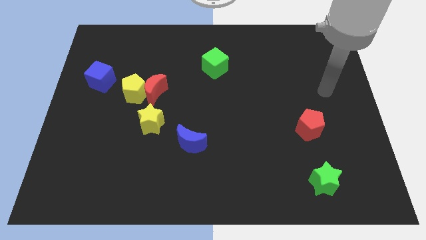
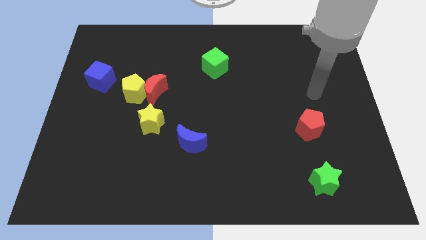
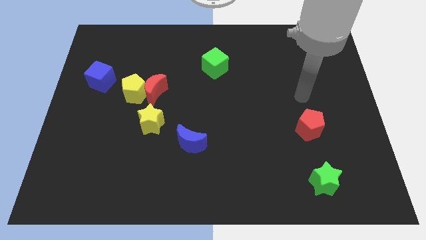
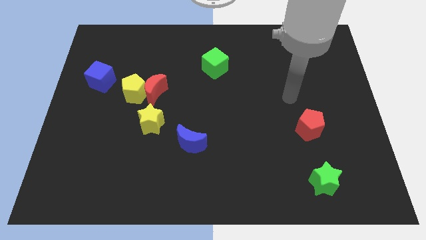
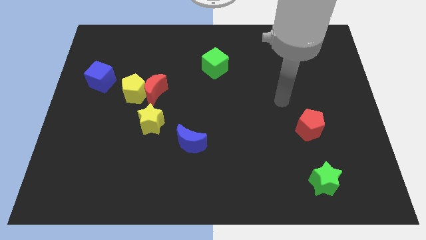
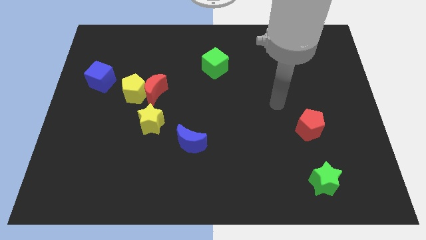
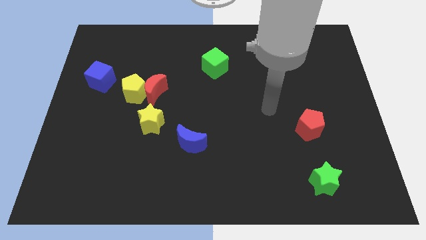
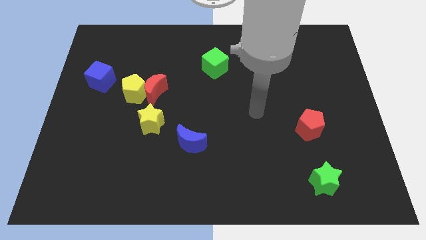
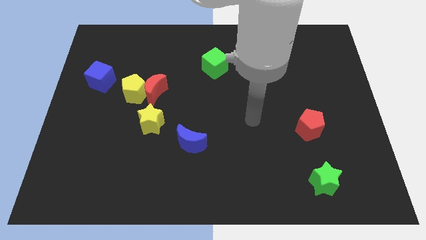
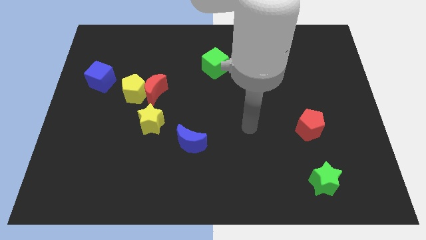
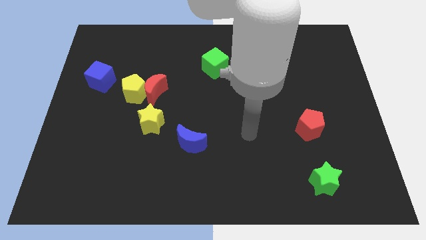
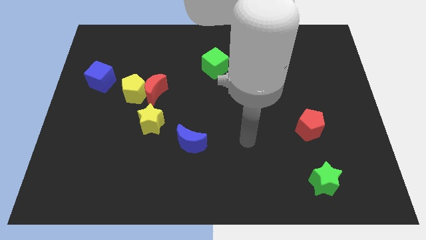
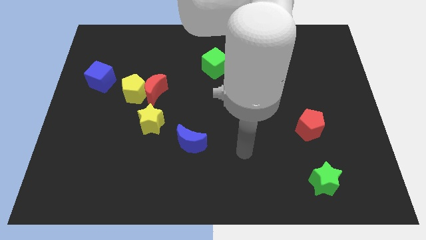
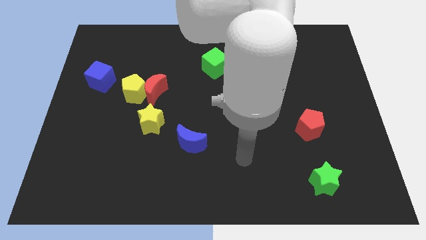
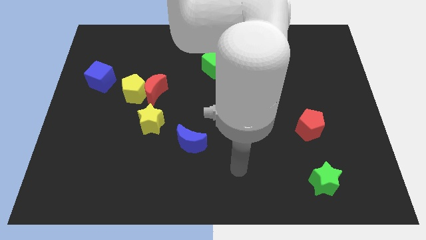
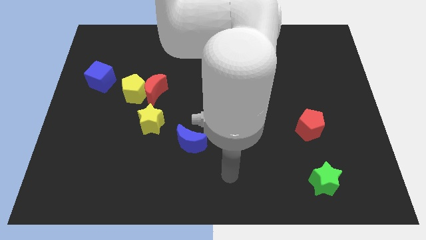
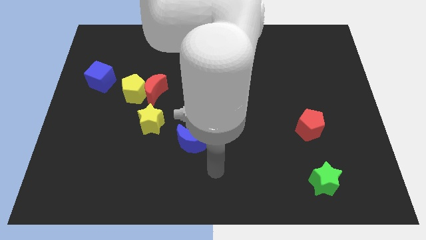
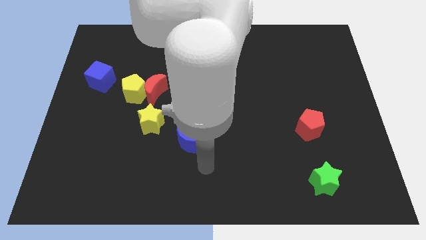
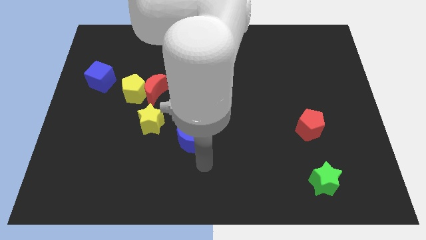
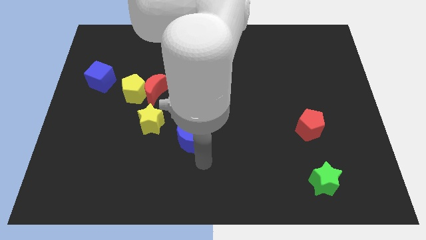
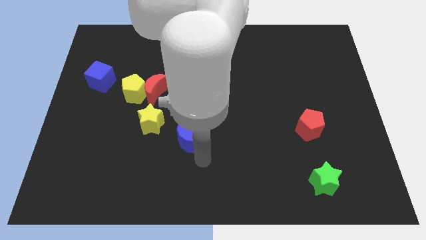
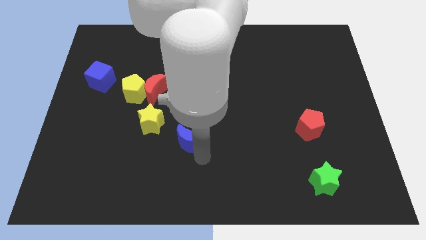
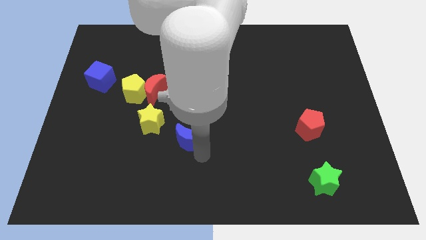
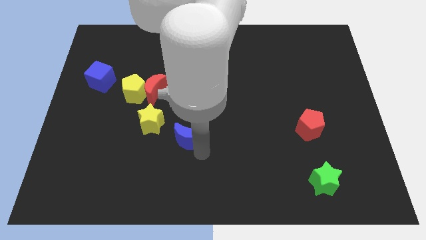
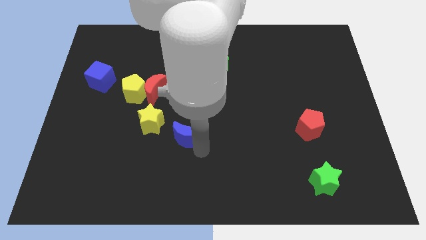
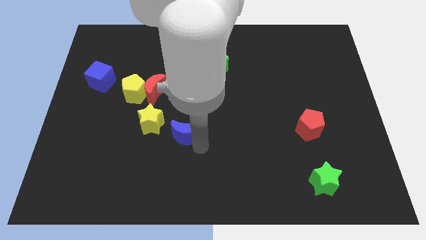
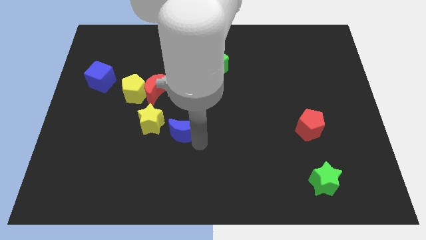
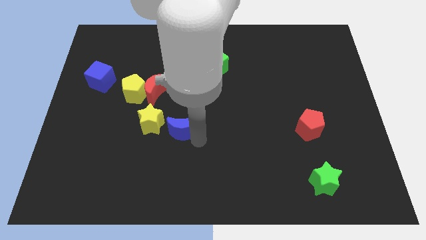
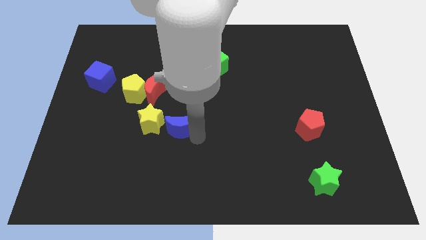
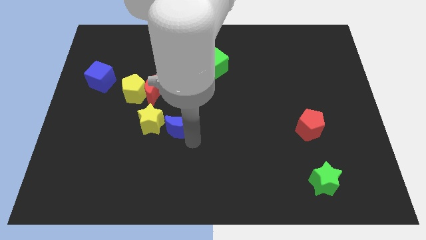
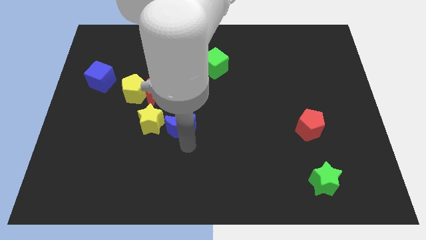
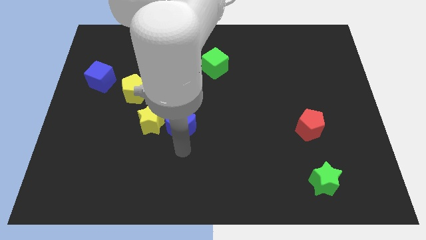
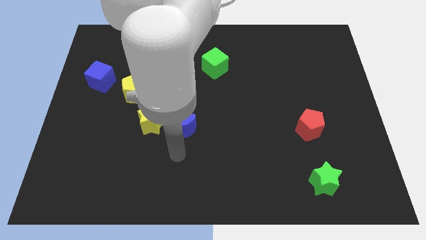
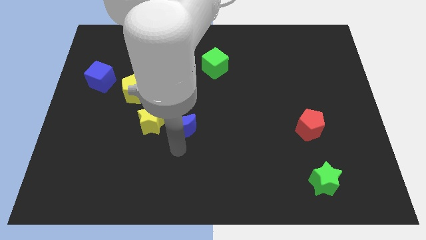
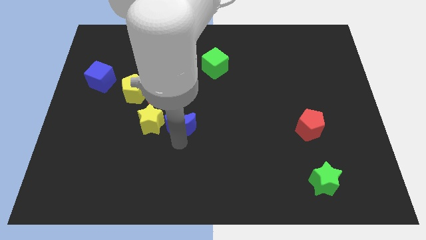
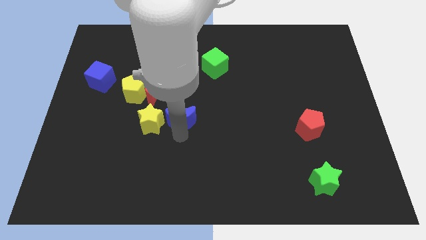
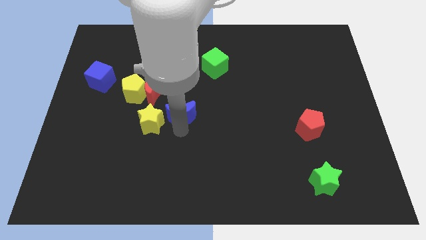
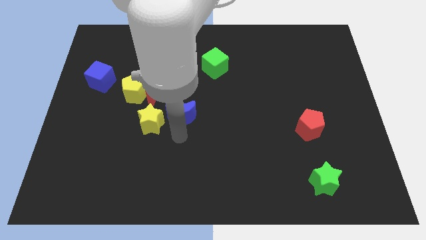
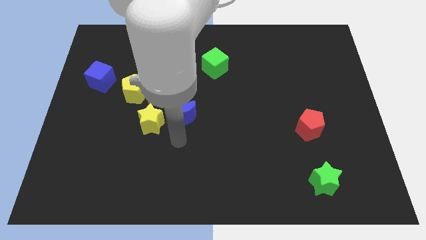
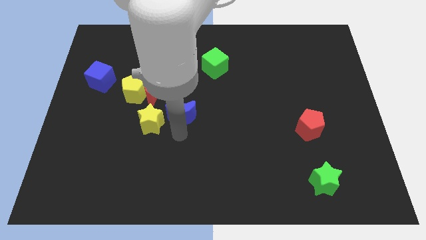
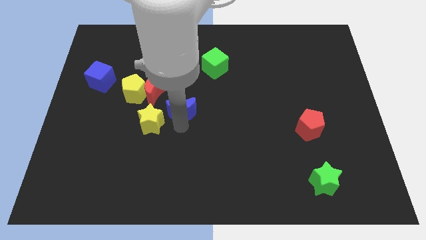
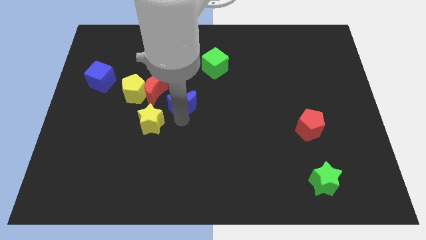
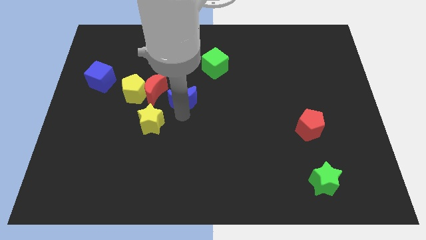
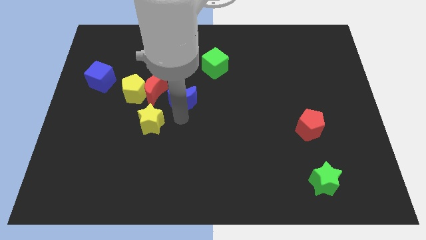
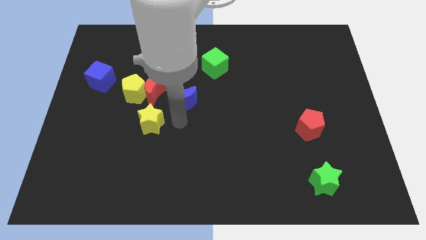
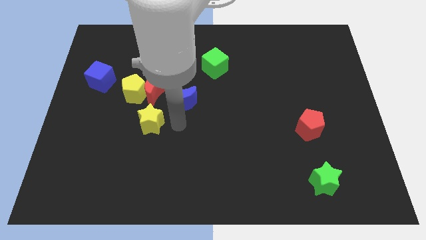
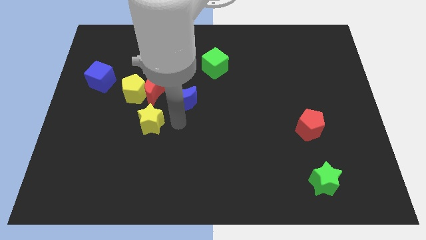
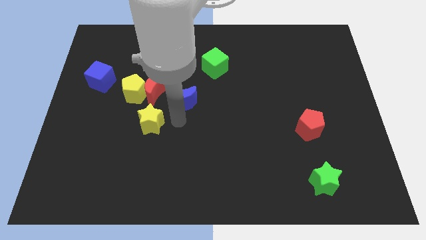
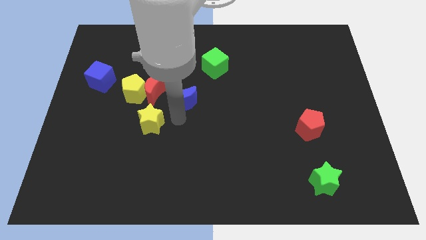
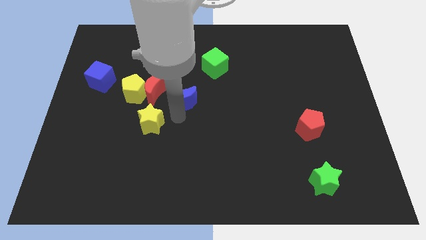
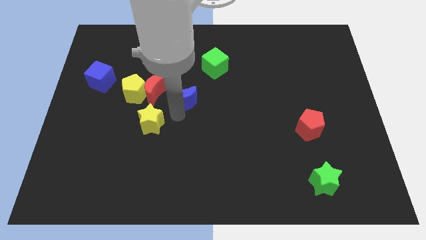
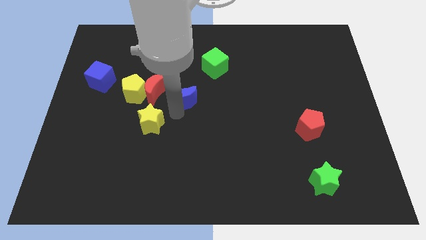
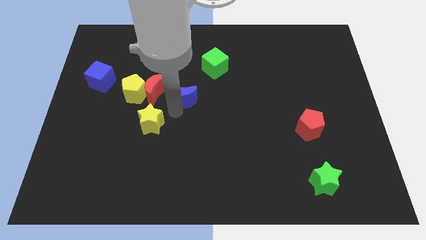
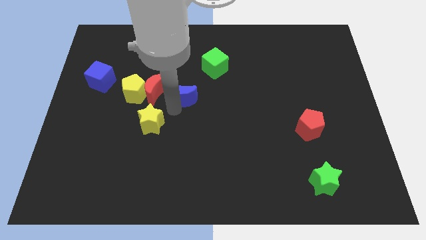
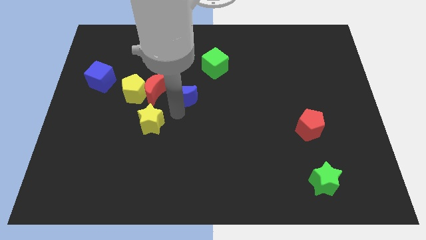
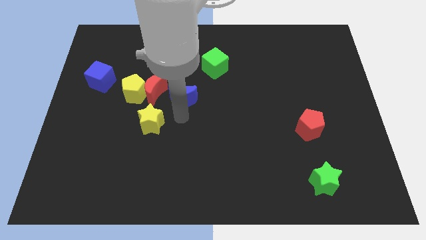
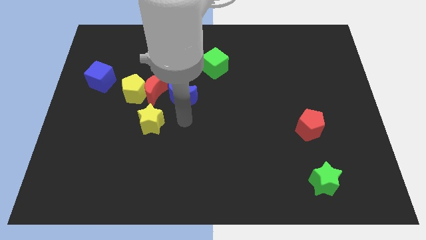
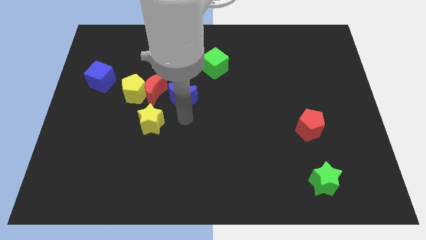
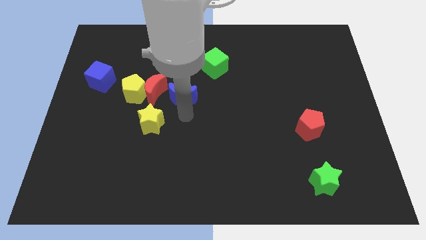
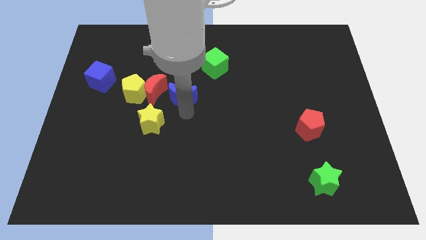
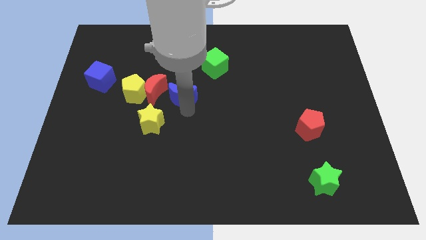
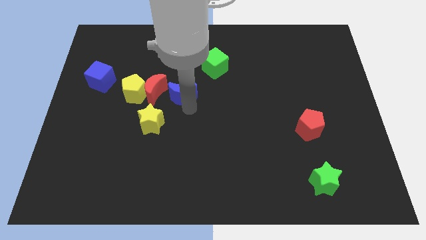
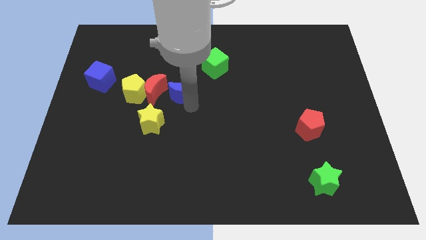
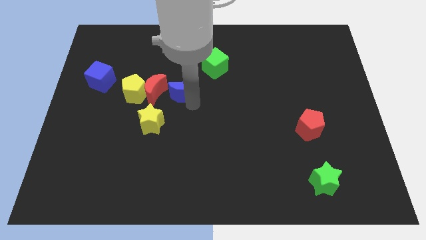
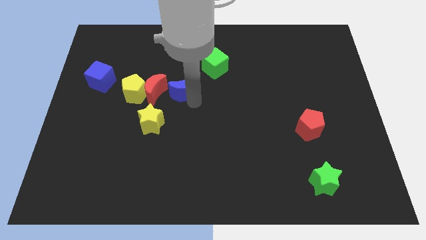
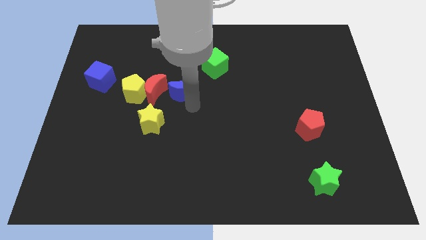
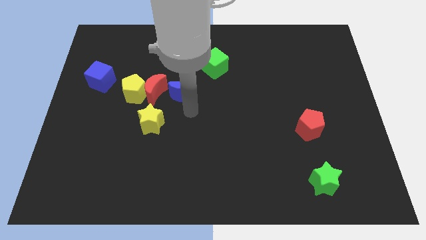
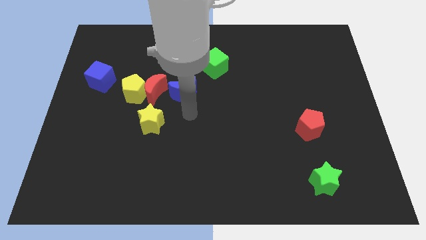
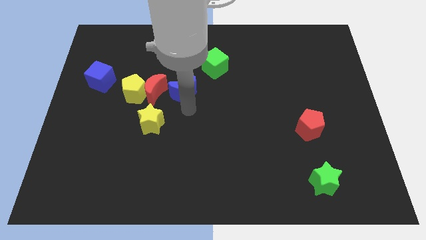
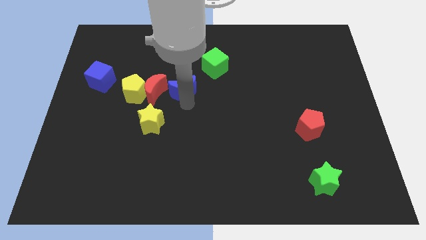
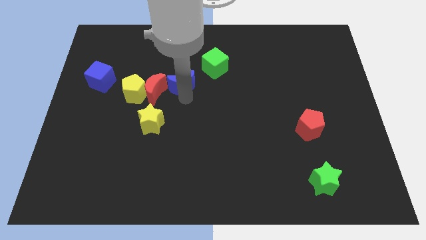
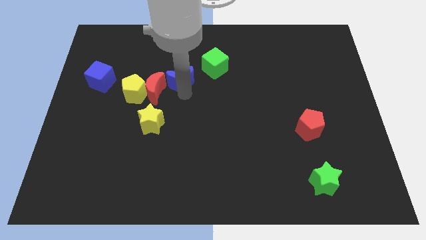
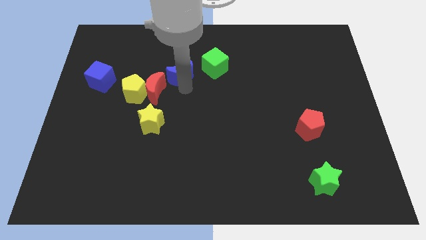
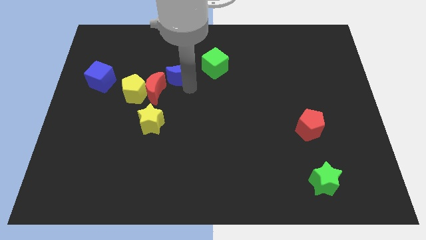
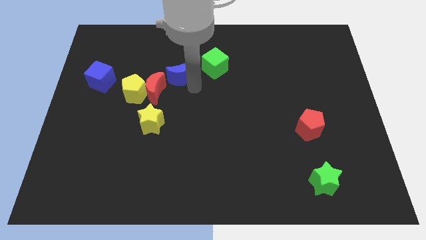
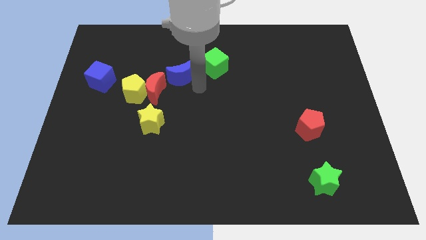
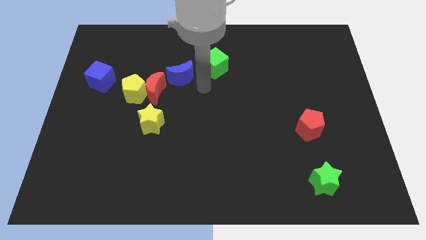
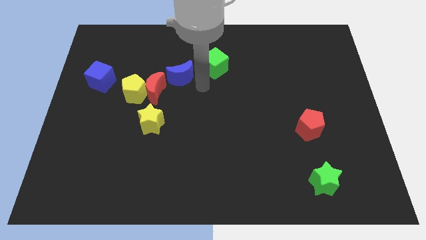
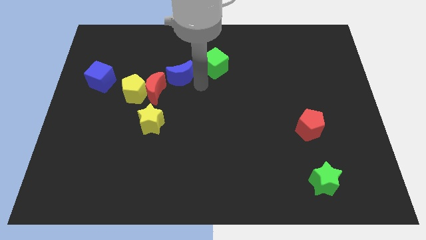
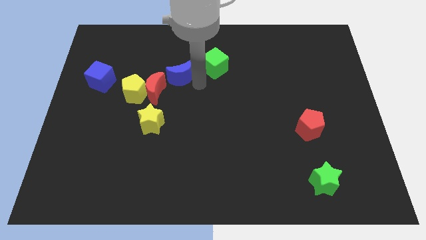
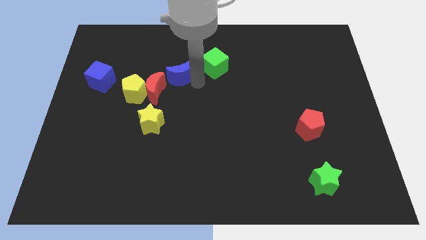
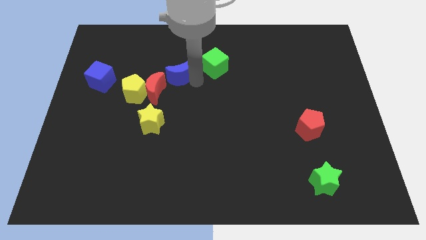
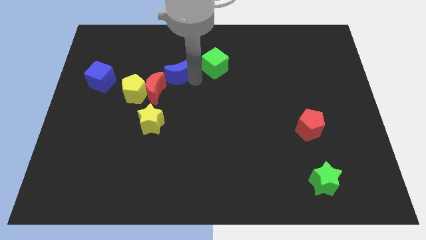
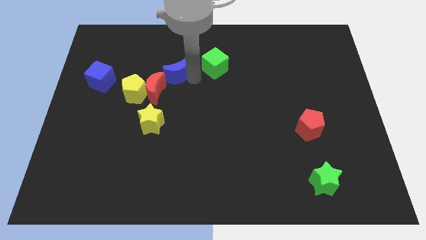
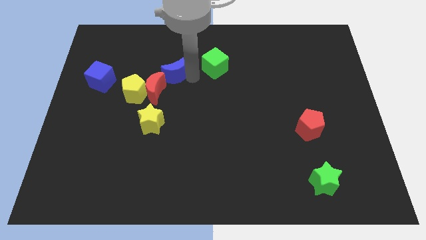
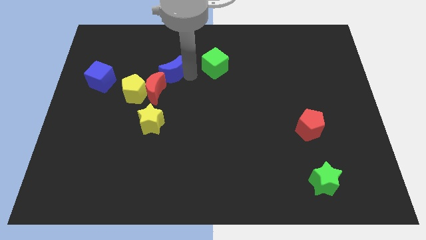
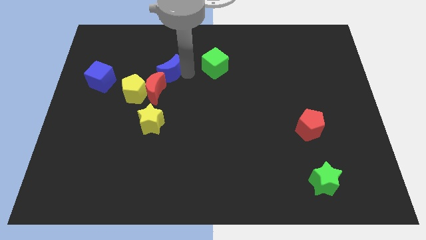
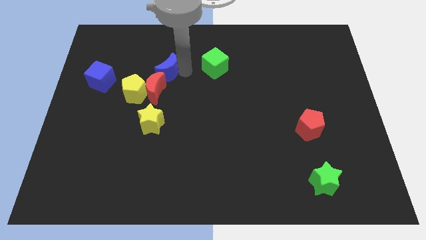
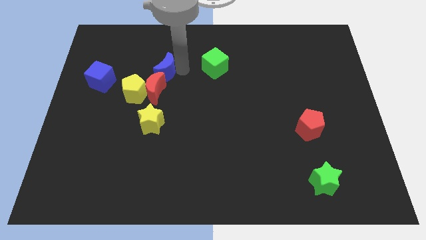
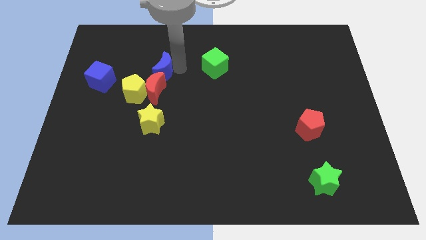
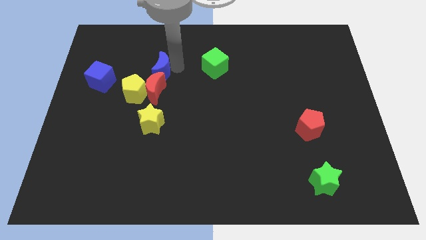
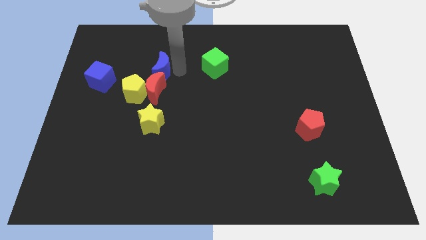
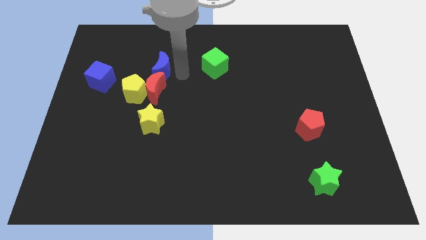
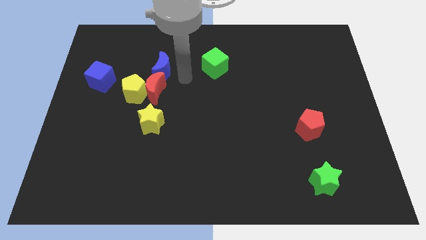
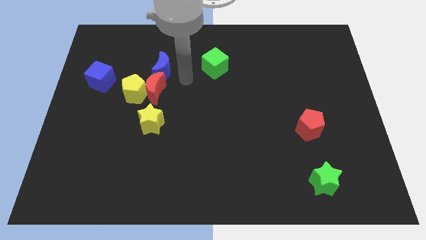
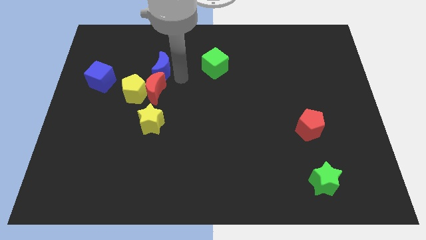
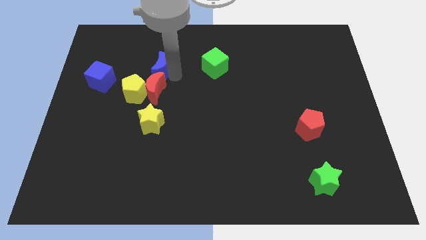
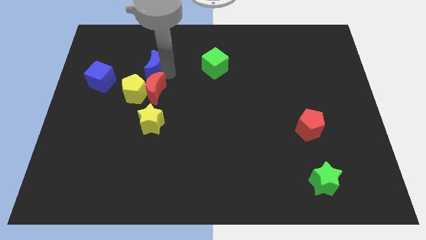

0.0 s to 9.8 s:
push the blue moon above the yellow pentagon
